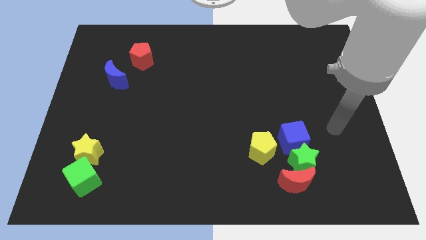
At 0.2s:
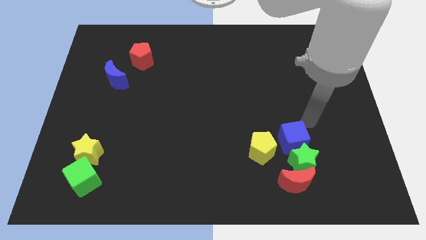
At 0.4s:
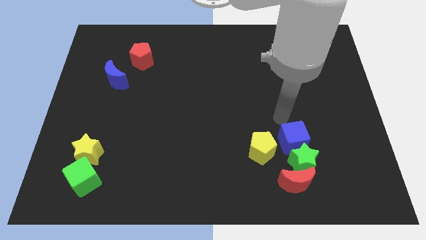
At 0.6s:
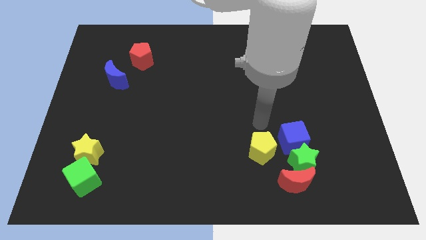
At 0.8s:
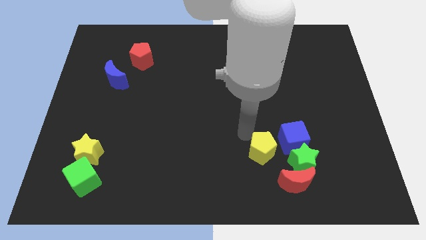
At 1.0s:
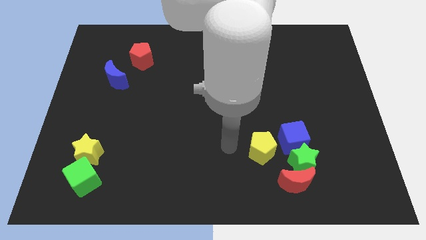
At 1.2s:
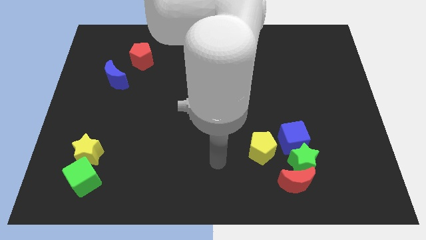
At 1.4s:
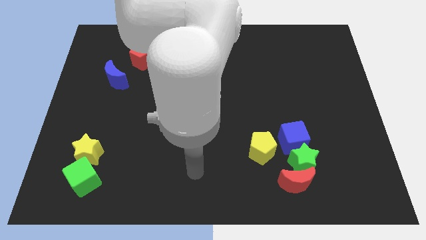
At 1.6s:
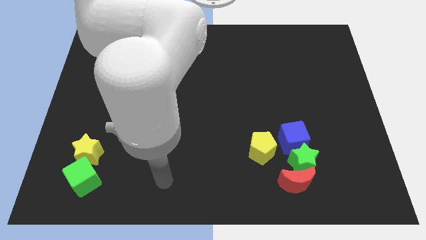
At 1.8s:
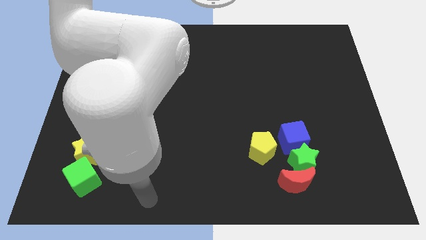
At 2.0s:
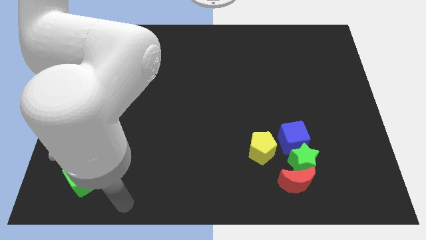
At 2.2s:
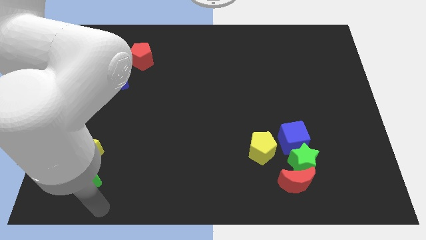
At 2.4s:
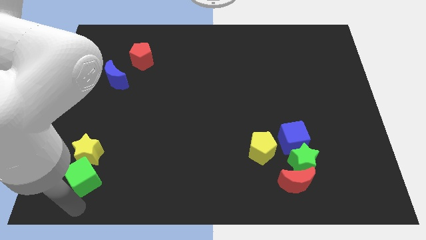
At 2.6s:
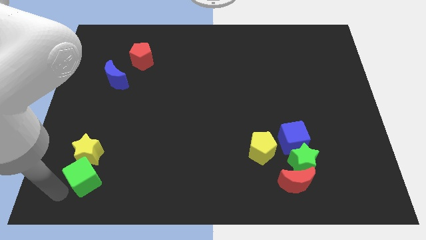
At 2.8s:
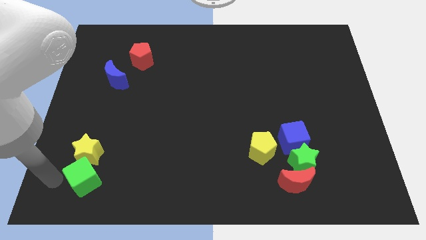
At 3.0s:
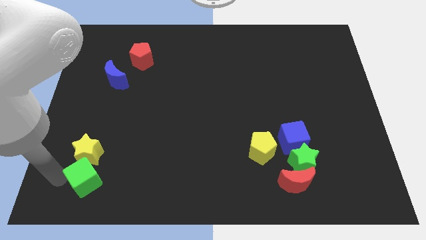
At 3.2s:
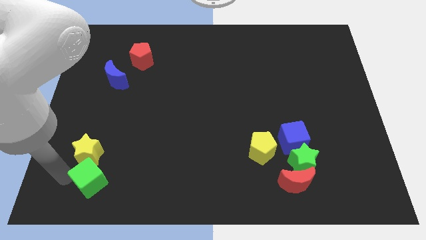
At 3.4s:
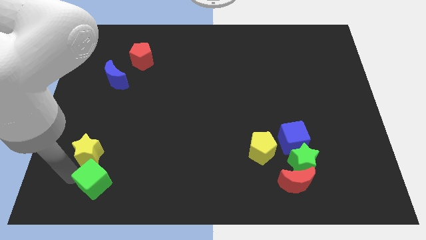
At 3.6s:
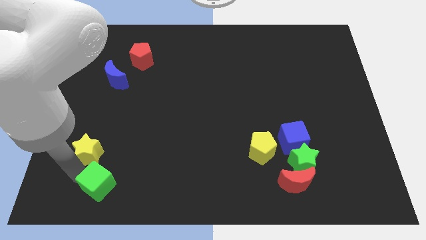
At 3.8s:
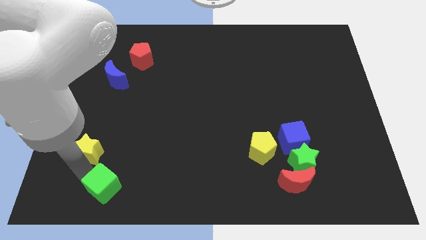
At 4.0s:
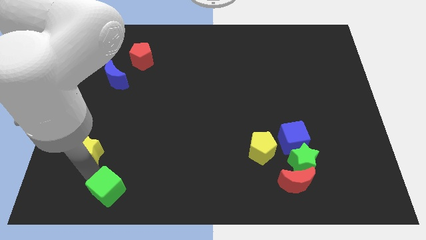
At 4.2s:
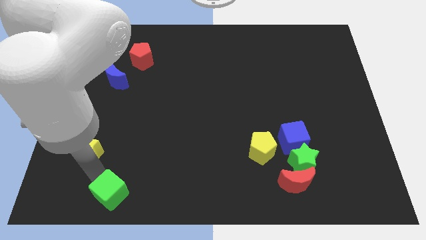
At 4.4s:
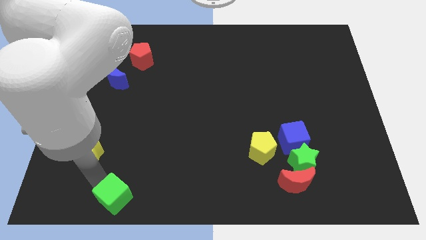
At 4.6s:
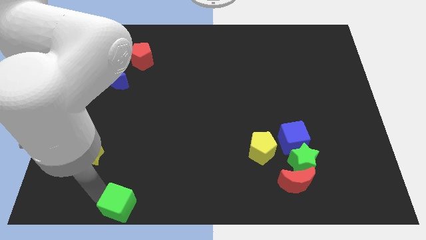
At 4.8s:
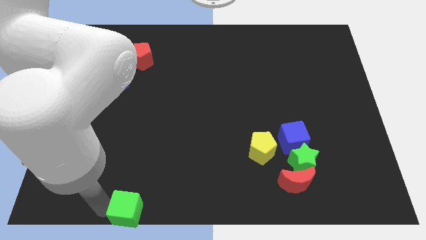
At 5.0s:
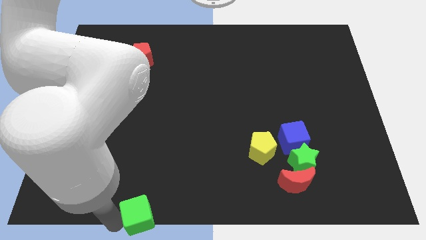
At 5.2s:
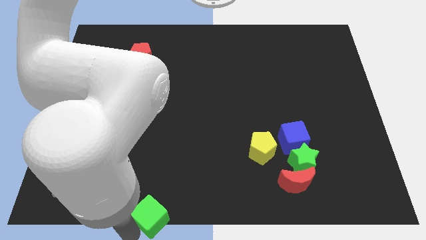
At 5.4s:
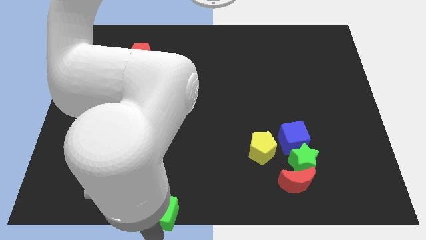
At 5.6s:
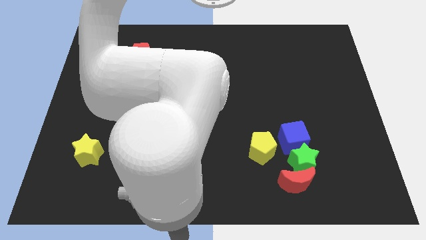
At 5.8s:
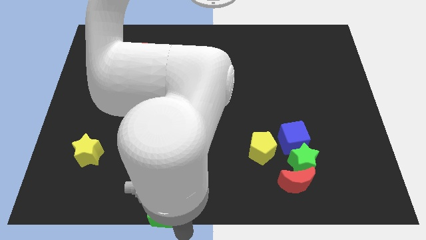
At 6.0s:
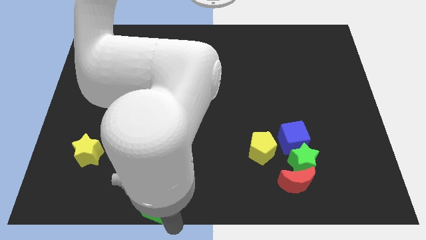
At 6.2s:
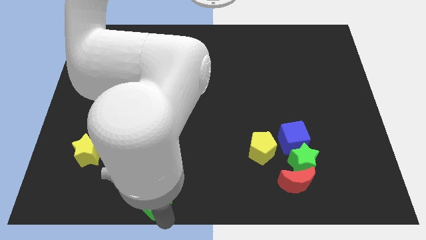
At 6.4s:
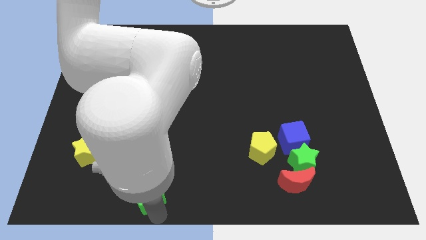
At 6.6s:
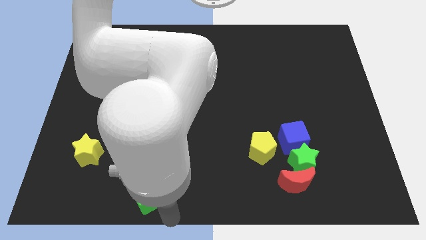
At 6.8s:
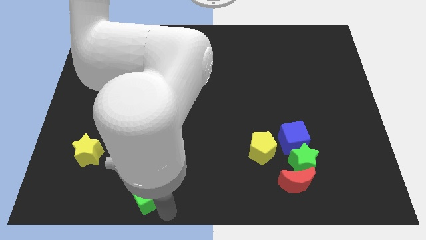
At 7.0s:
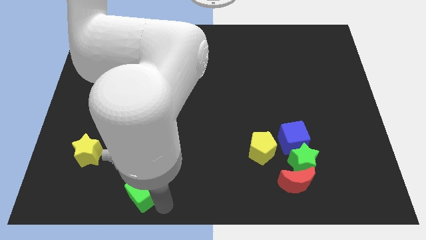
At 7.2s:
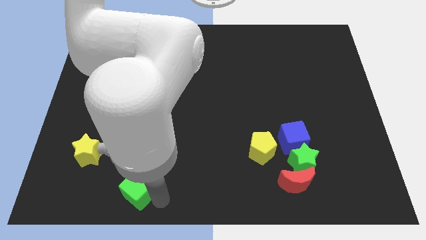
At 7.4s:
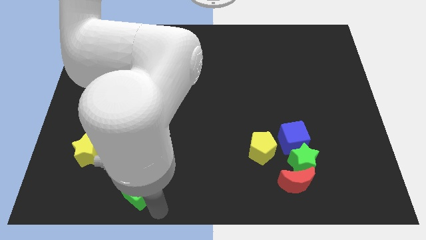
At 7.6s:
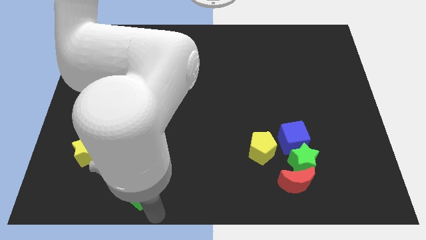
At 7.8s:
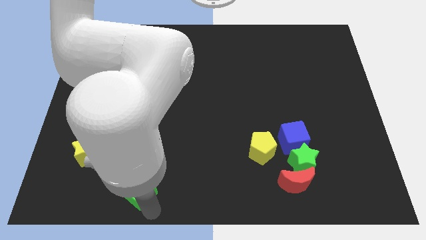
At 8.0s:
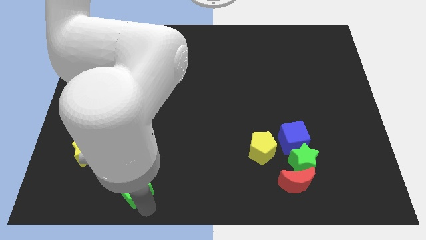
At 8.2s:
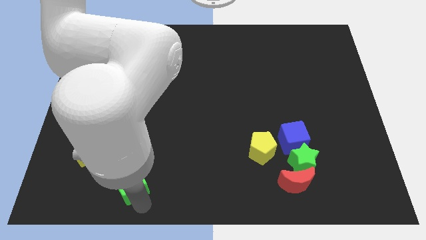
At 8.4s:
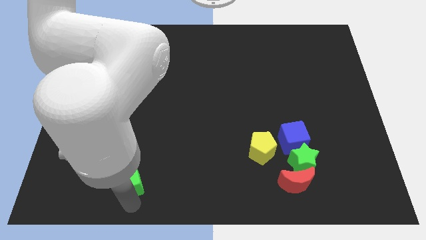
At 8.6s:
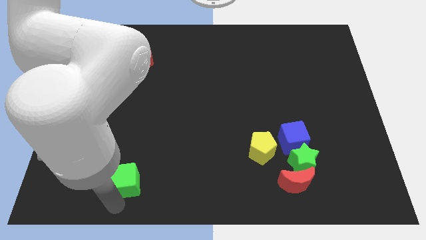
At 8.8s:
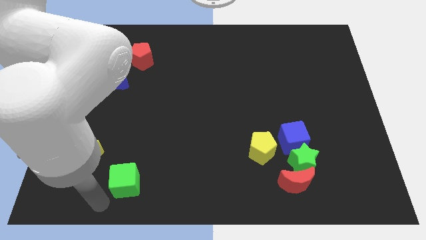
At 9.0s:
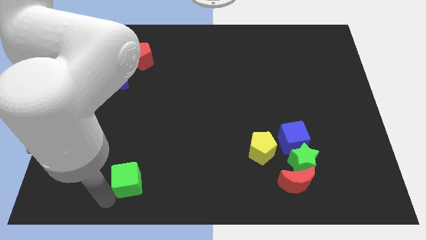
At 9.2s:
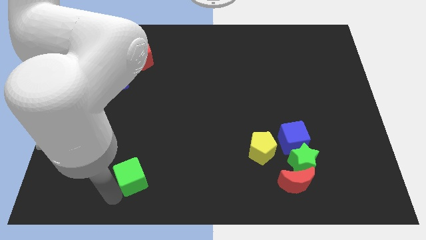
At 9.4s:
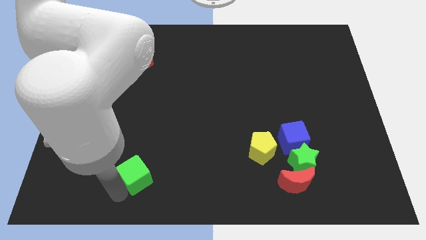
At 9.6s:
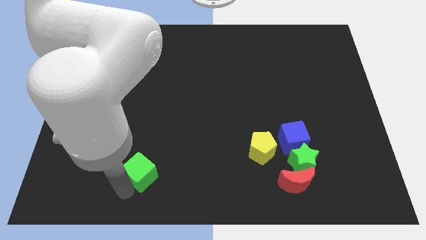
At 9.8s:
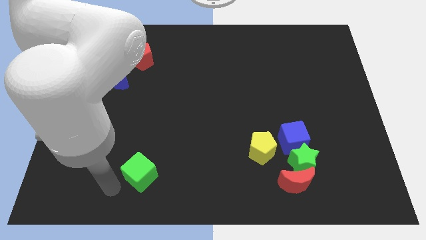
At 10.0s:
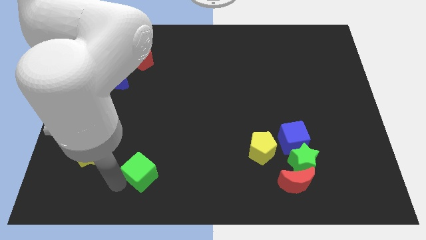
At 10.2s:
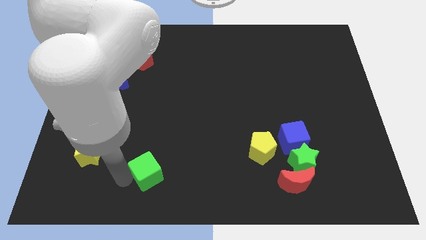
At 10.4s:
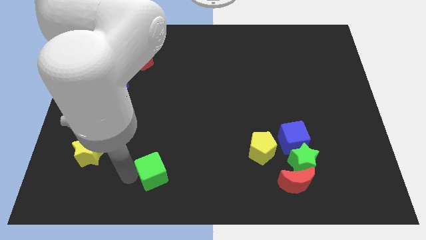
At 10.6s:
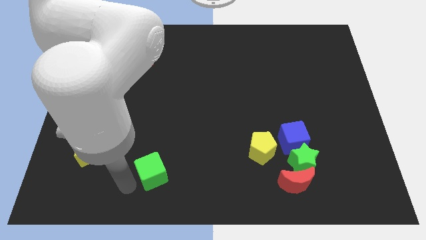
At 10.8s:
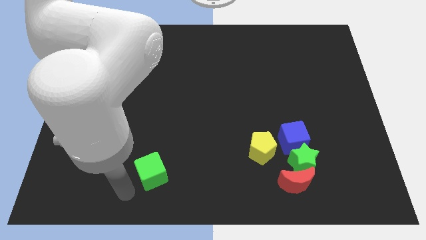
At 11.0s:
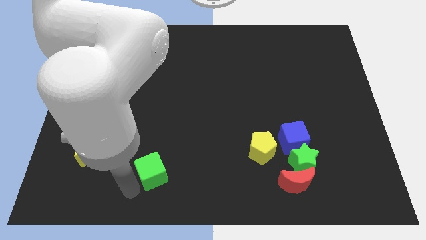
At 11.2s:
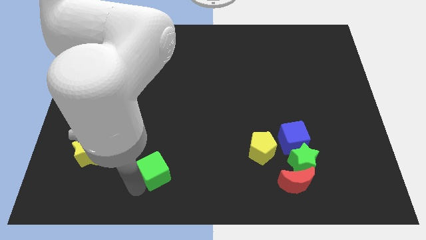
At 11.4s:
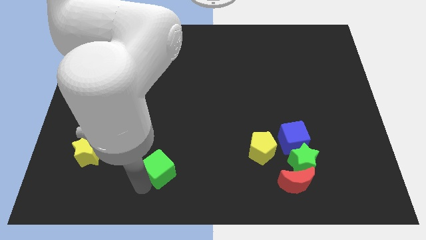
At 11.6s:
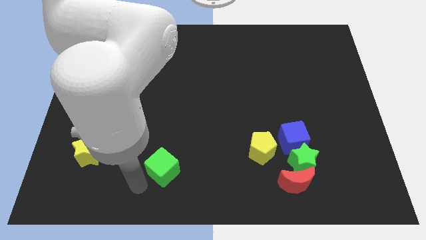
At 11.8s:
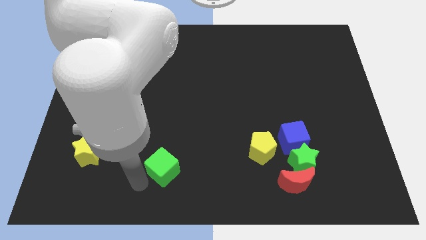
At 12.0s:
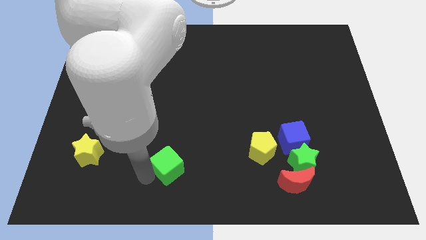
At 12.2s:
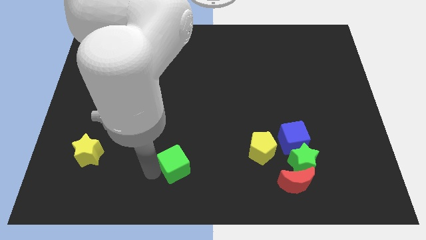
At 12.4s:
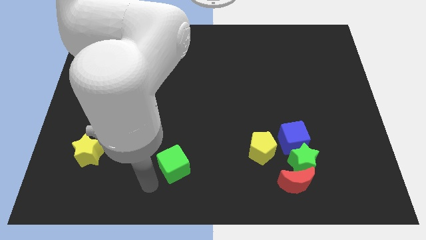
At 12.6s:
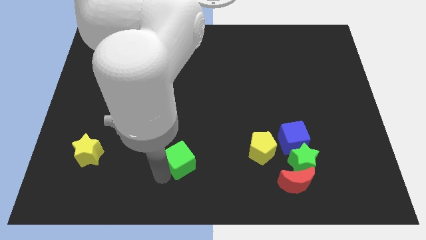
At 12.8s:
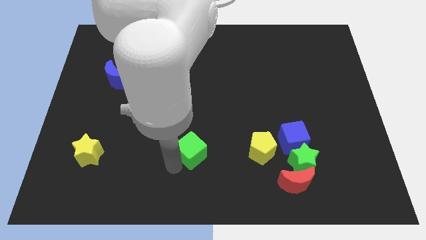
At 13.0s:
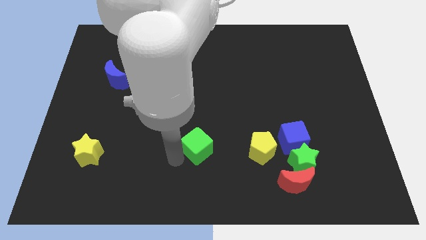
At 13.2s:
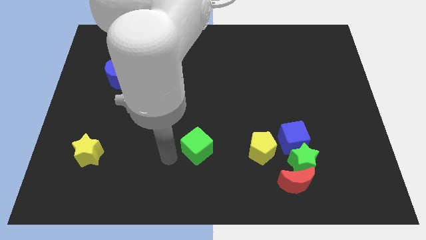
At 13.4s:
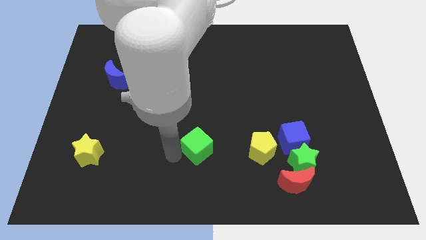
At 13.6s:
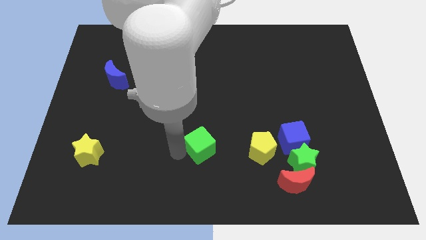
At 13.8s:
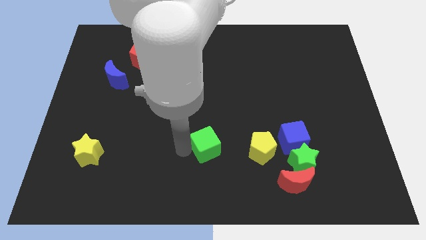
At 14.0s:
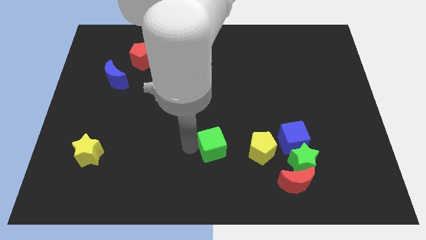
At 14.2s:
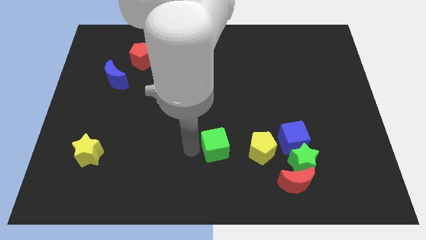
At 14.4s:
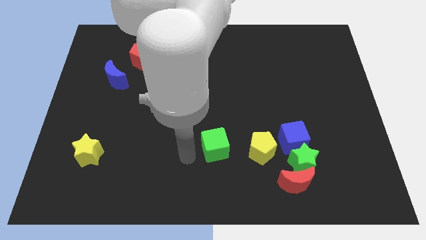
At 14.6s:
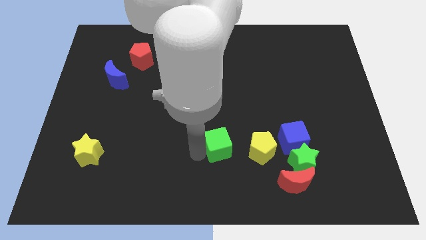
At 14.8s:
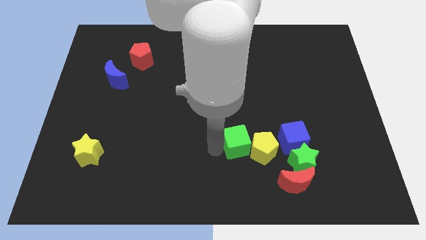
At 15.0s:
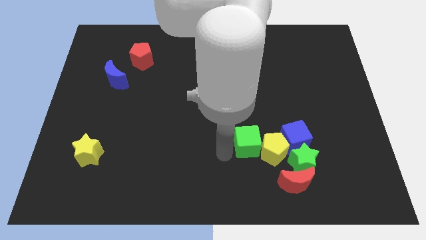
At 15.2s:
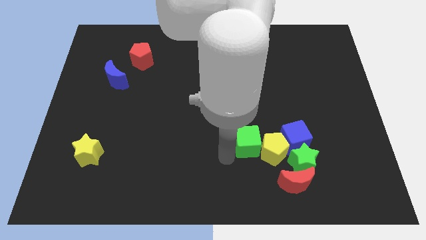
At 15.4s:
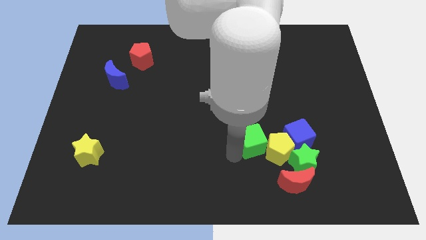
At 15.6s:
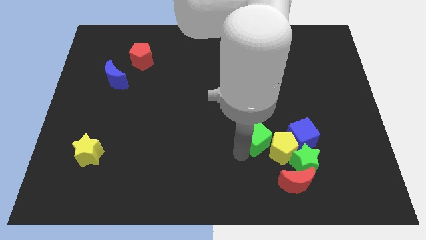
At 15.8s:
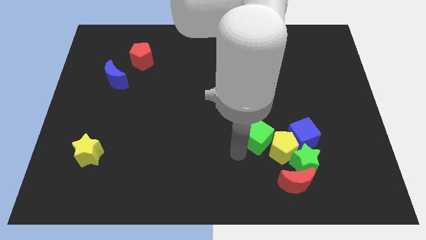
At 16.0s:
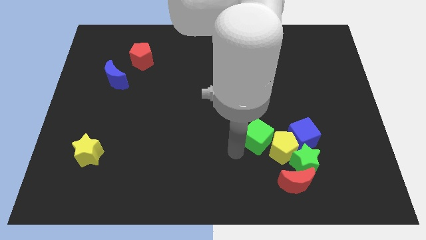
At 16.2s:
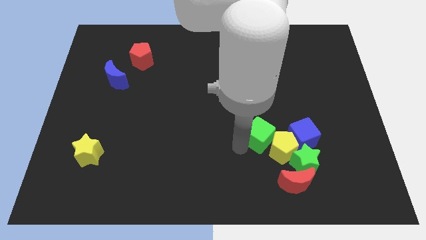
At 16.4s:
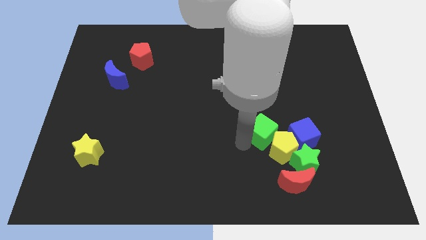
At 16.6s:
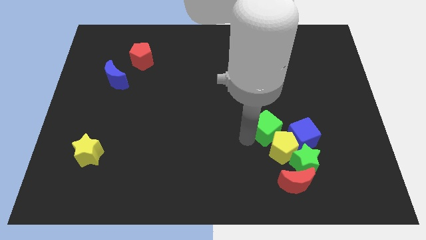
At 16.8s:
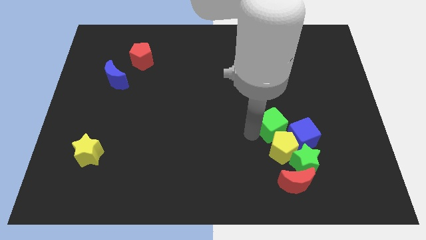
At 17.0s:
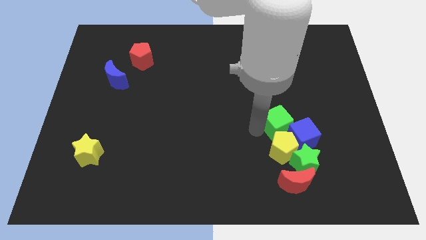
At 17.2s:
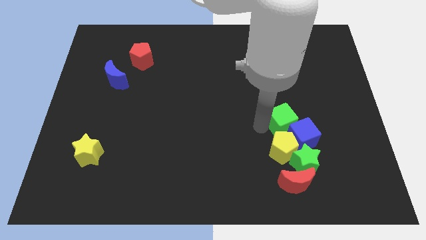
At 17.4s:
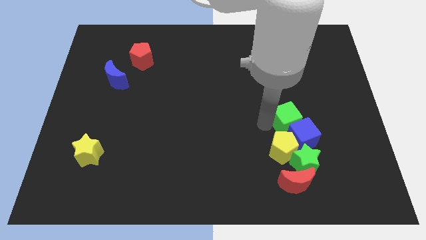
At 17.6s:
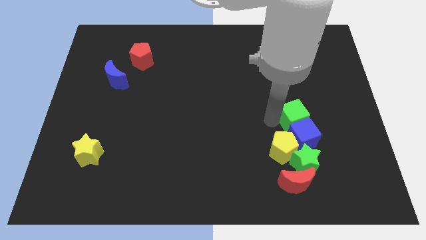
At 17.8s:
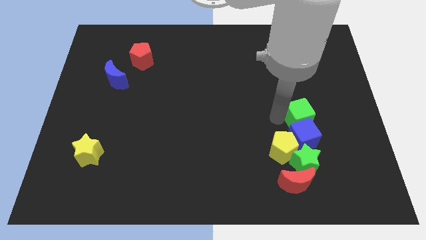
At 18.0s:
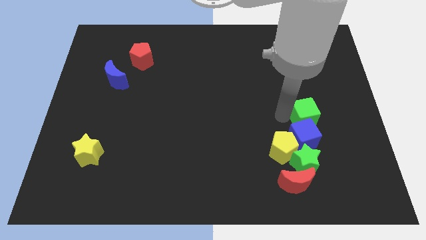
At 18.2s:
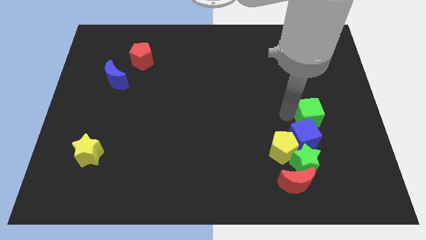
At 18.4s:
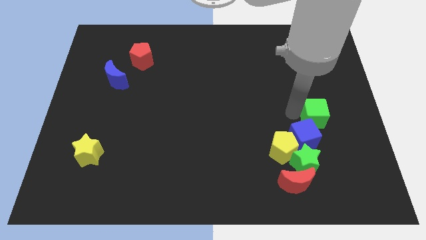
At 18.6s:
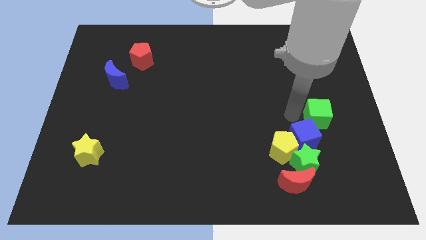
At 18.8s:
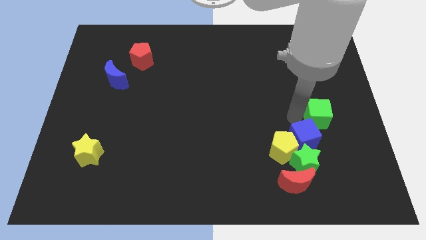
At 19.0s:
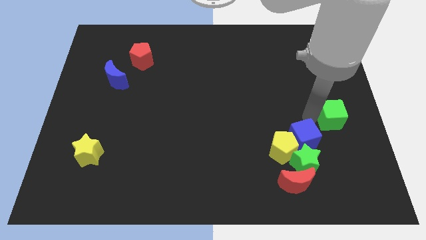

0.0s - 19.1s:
slide the green cube to the right side
